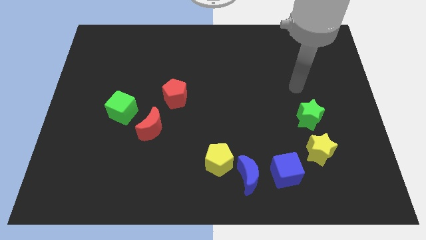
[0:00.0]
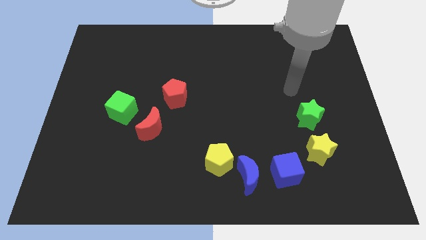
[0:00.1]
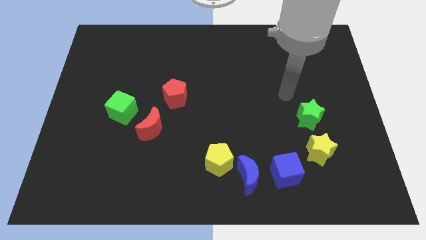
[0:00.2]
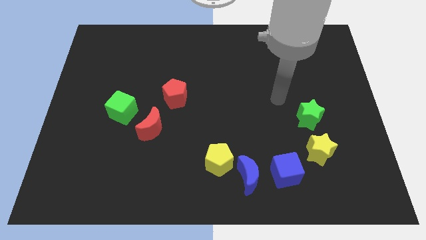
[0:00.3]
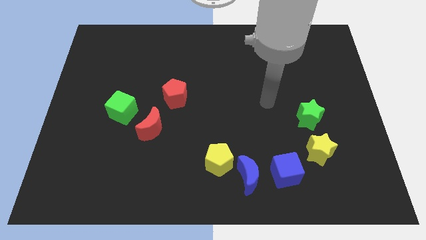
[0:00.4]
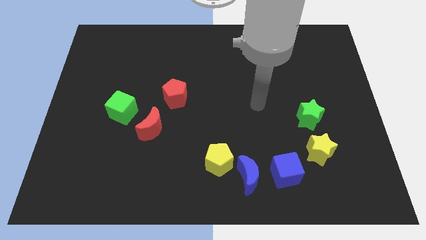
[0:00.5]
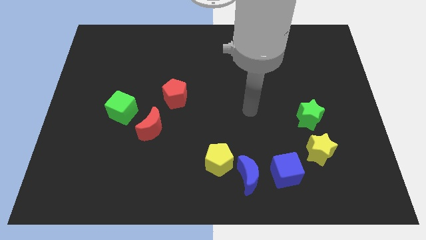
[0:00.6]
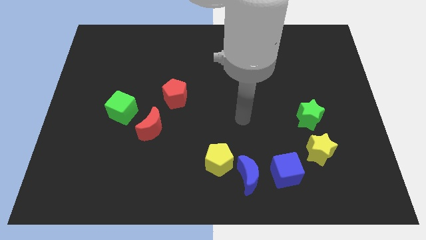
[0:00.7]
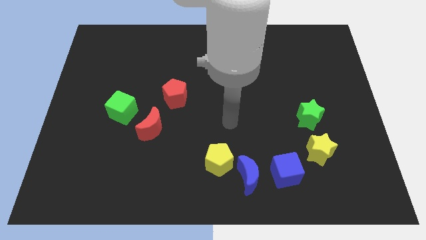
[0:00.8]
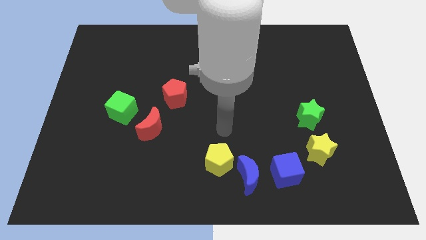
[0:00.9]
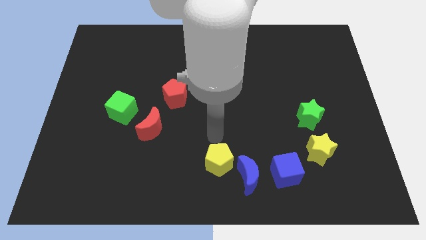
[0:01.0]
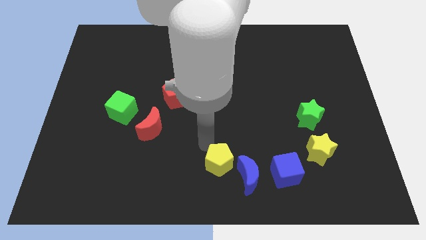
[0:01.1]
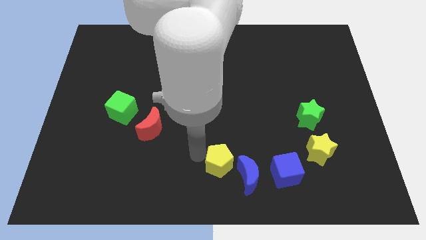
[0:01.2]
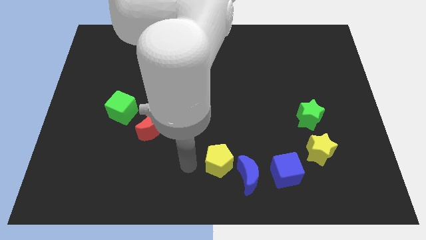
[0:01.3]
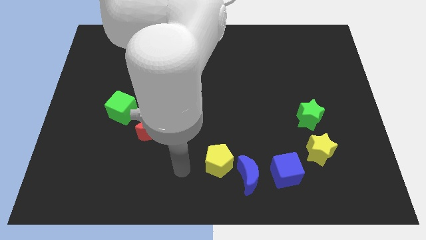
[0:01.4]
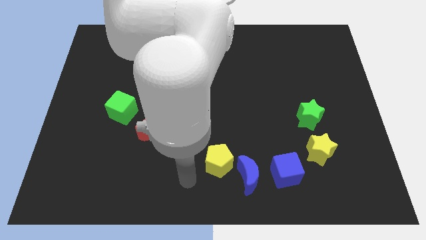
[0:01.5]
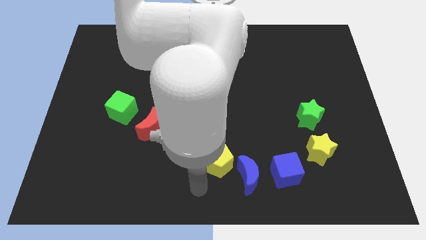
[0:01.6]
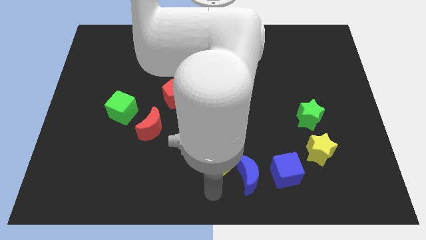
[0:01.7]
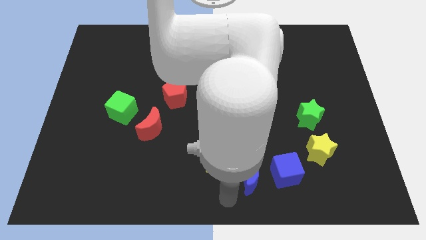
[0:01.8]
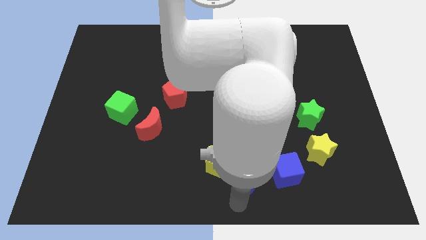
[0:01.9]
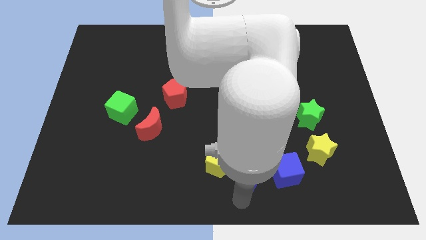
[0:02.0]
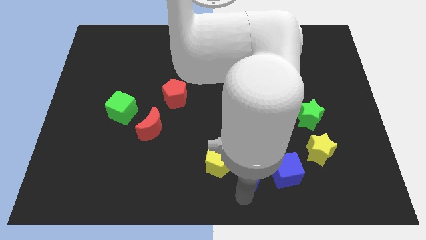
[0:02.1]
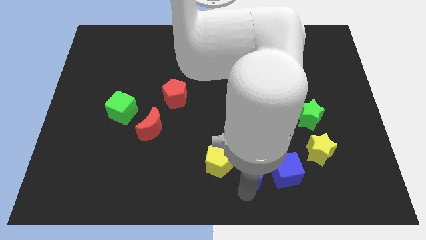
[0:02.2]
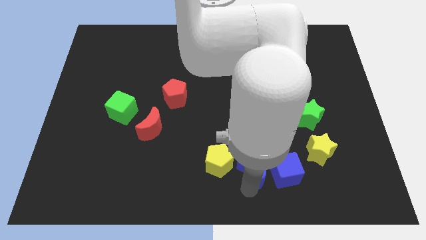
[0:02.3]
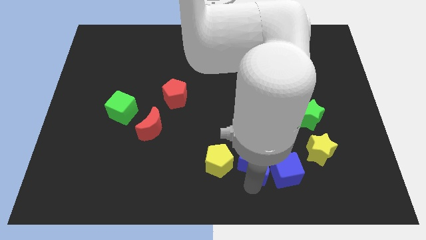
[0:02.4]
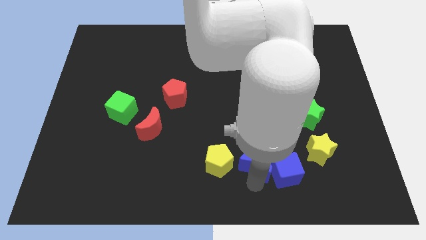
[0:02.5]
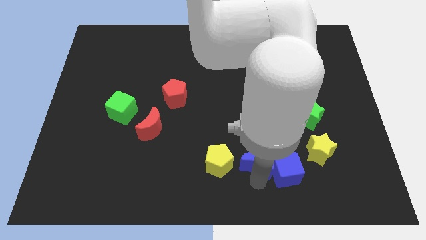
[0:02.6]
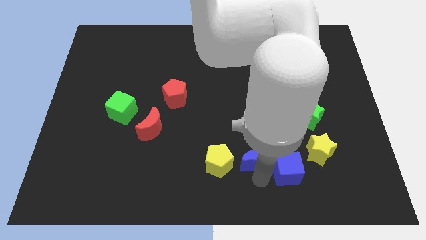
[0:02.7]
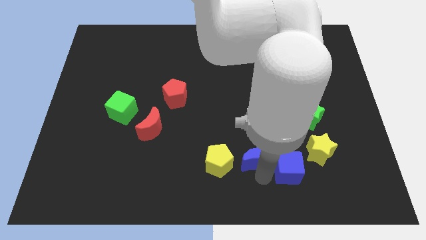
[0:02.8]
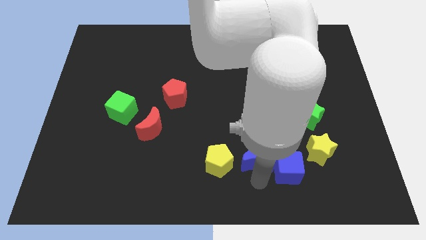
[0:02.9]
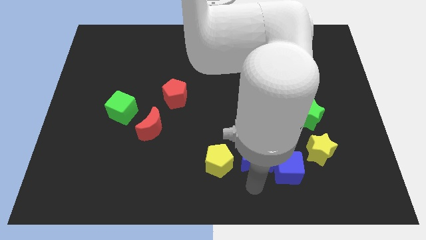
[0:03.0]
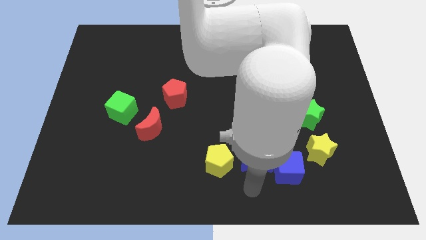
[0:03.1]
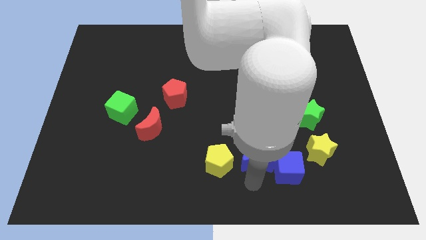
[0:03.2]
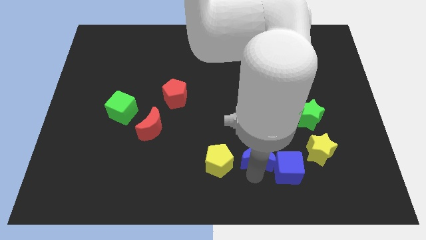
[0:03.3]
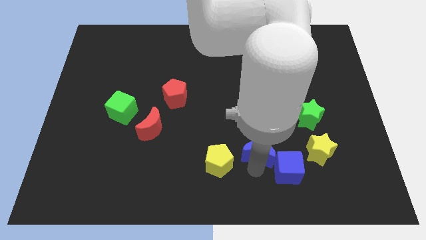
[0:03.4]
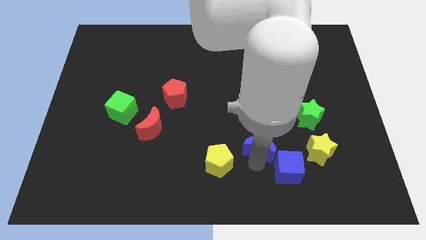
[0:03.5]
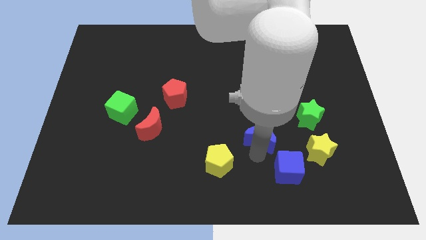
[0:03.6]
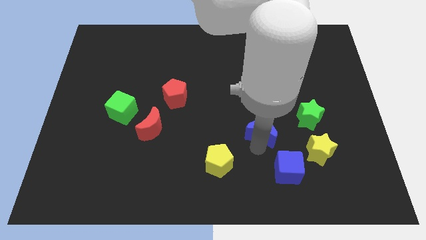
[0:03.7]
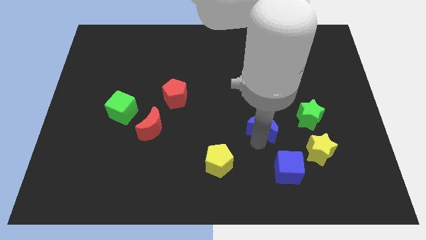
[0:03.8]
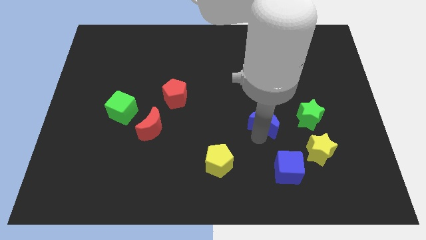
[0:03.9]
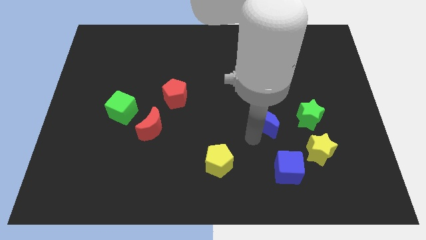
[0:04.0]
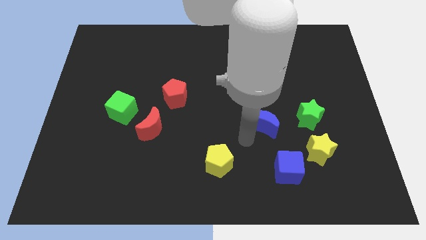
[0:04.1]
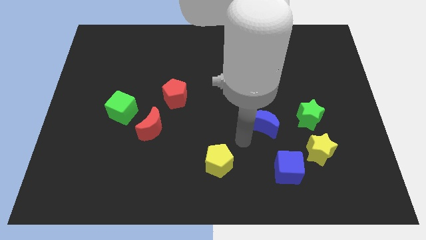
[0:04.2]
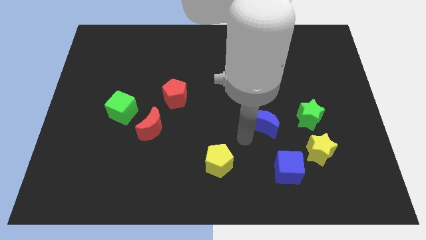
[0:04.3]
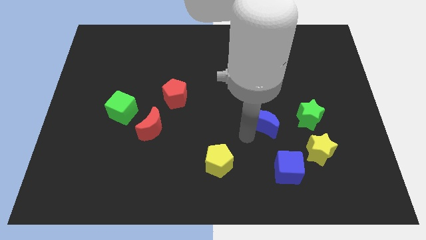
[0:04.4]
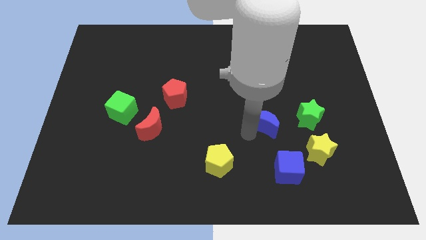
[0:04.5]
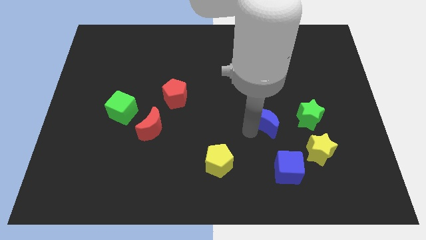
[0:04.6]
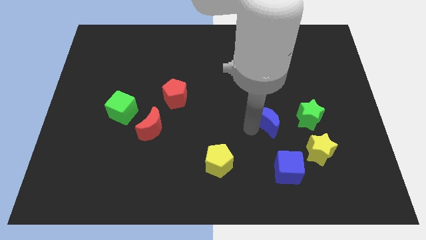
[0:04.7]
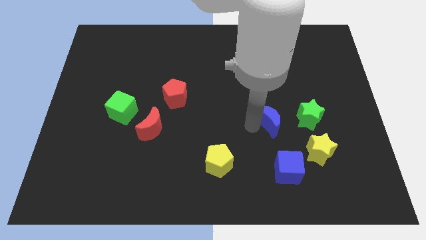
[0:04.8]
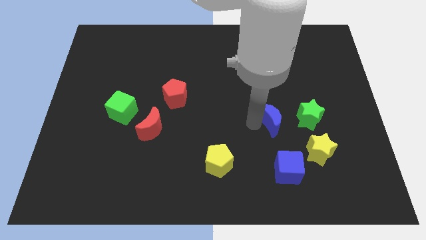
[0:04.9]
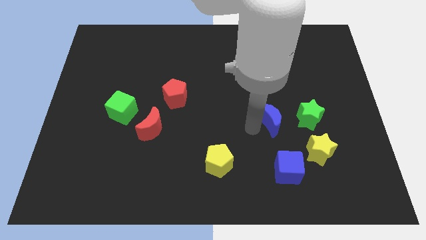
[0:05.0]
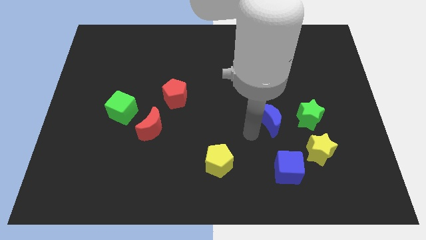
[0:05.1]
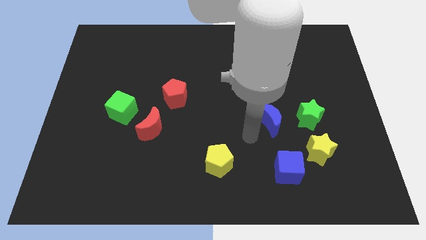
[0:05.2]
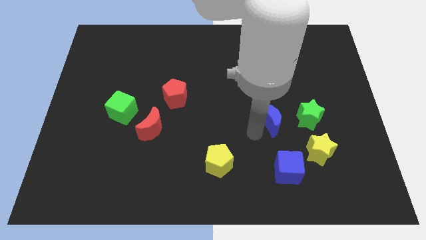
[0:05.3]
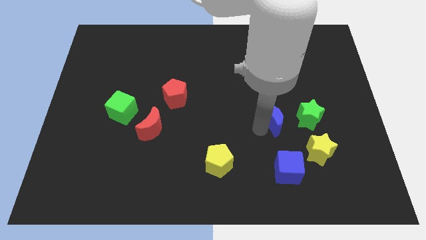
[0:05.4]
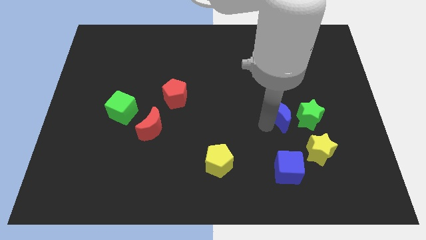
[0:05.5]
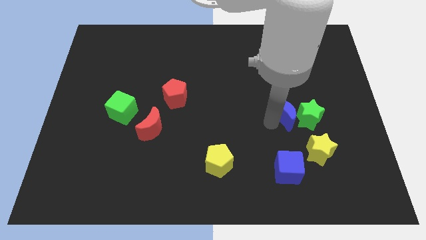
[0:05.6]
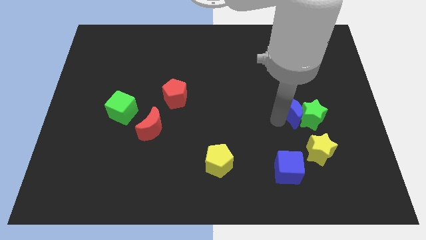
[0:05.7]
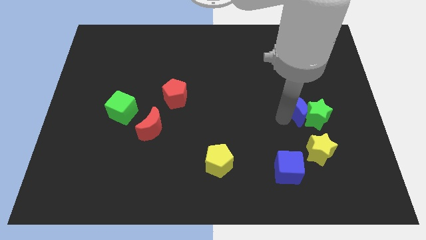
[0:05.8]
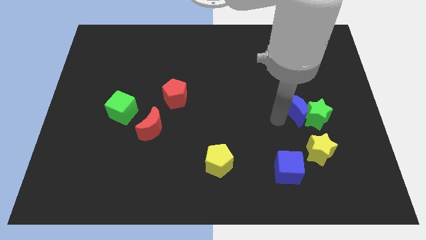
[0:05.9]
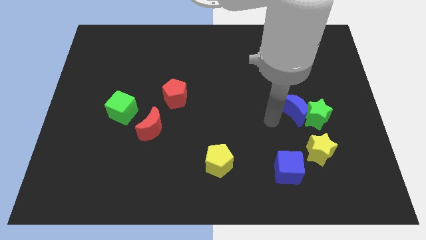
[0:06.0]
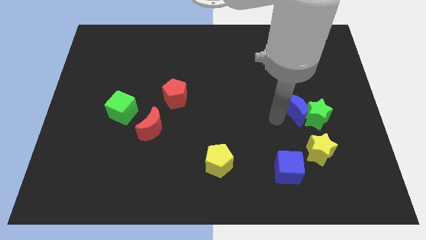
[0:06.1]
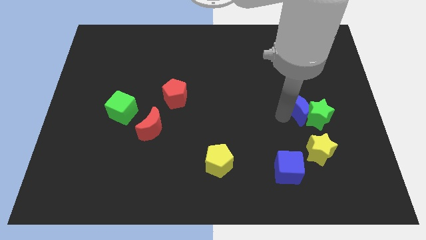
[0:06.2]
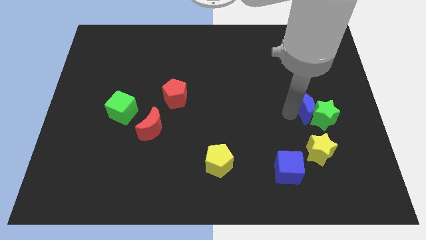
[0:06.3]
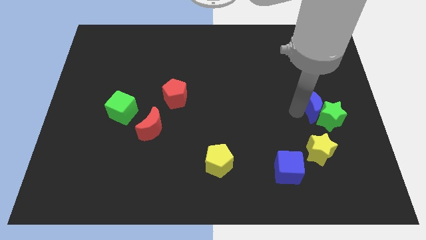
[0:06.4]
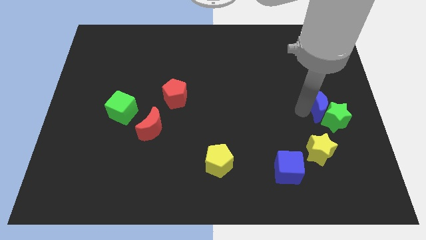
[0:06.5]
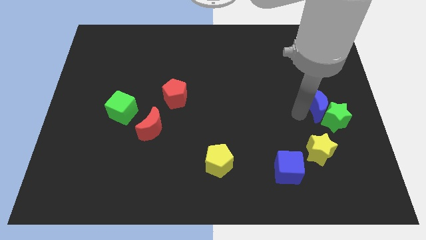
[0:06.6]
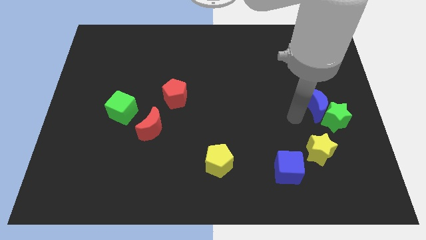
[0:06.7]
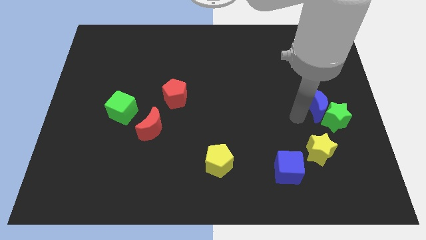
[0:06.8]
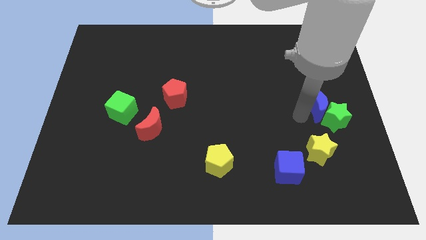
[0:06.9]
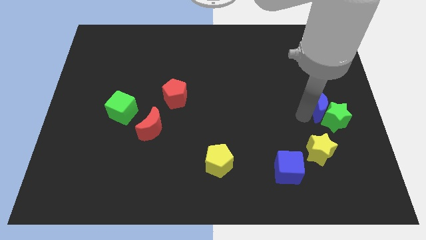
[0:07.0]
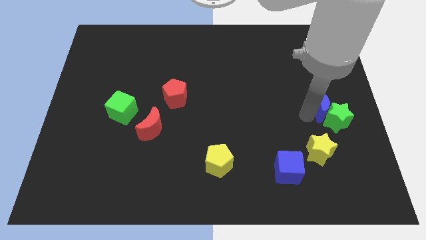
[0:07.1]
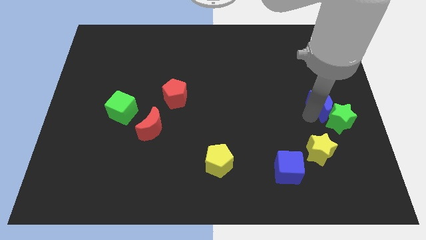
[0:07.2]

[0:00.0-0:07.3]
push the blue moon to the right side
